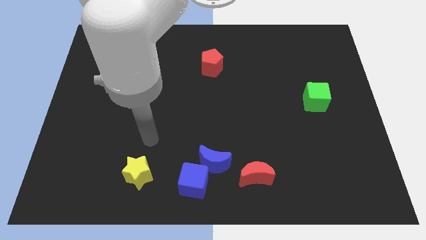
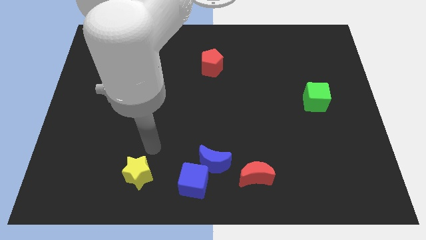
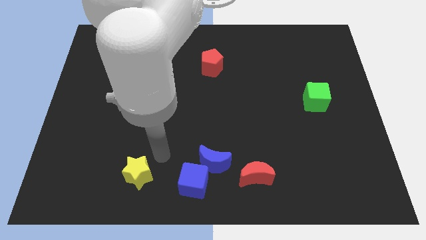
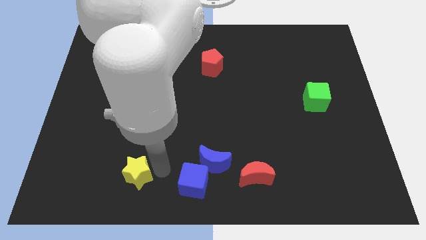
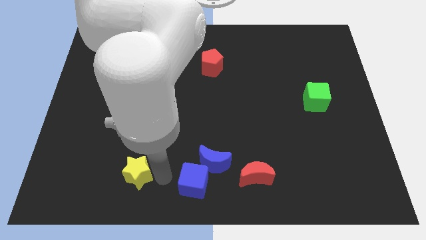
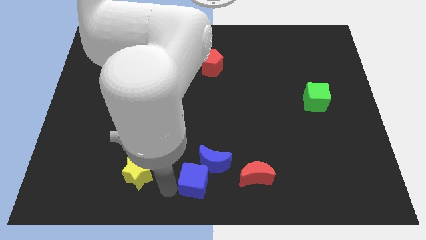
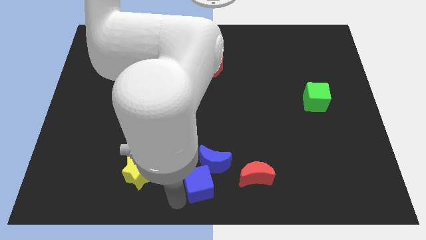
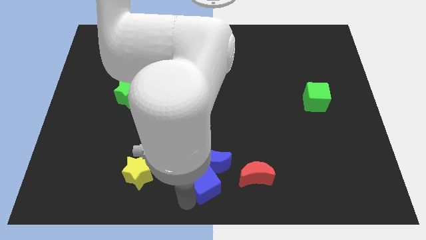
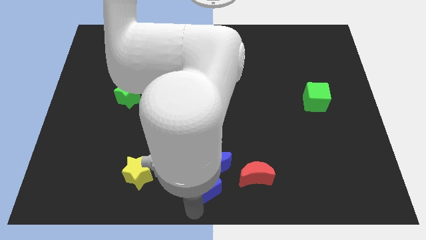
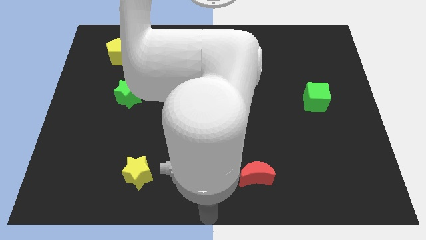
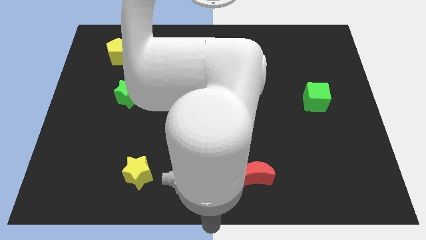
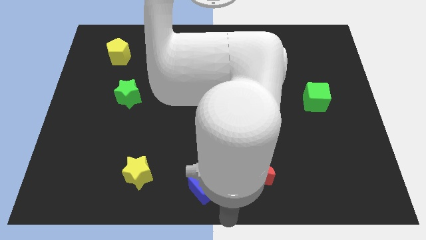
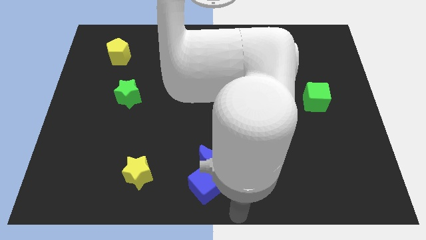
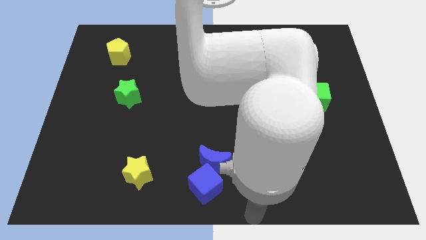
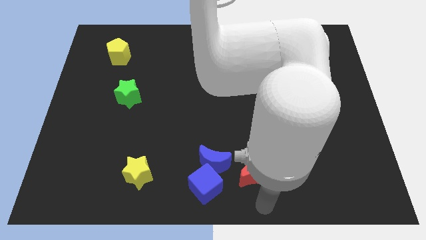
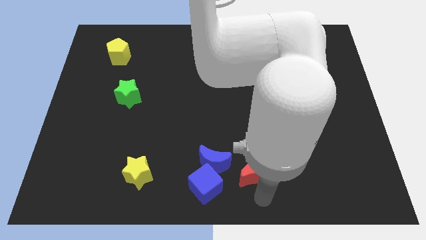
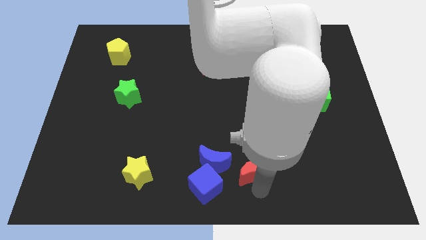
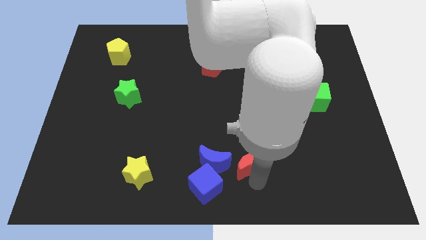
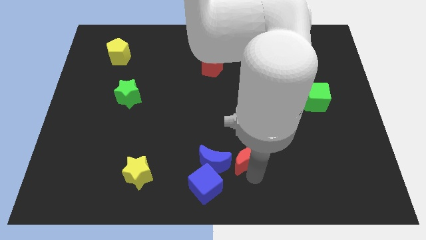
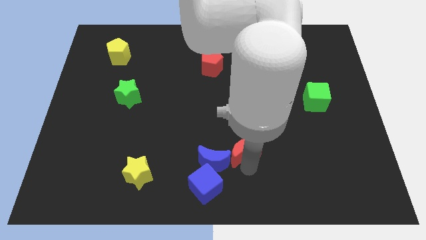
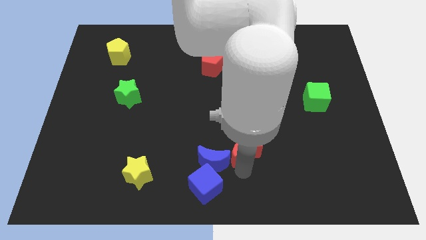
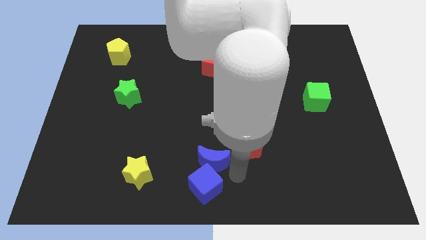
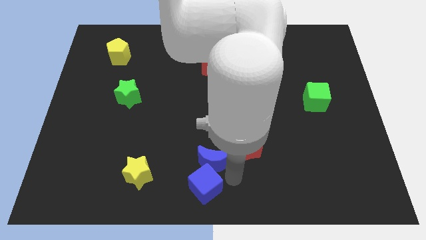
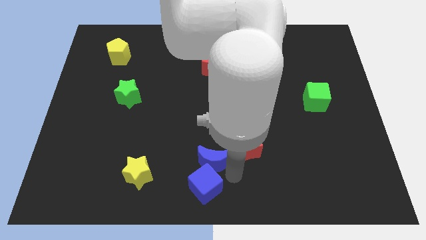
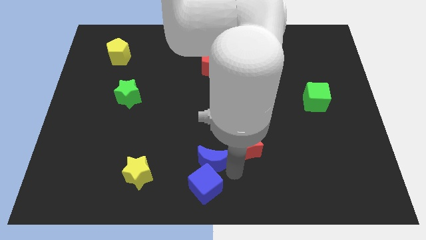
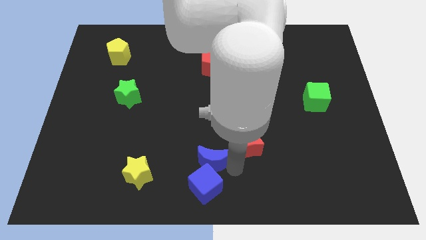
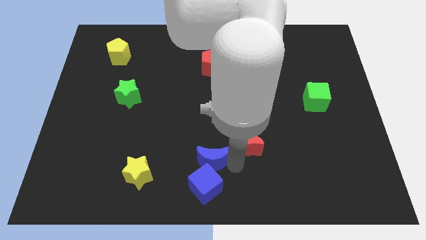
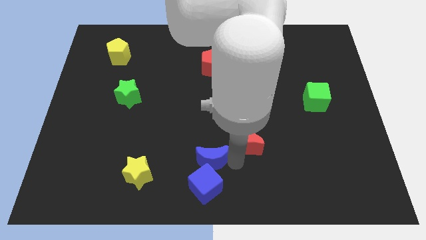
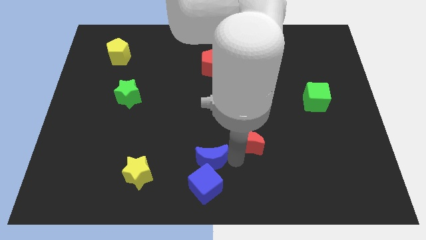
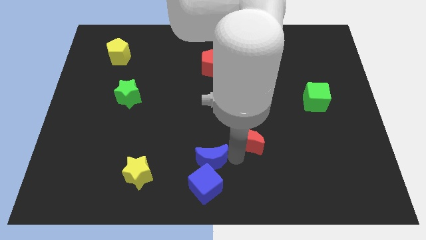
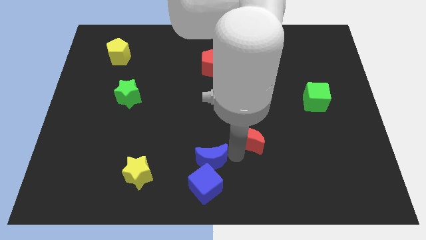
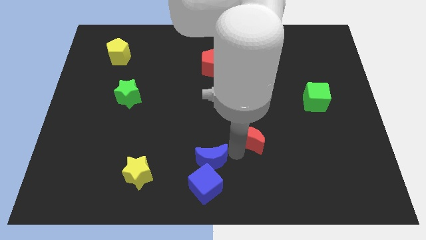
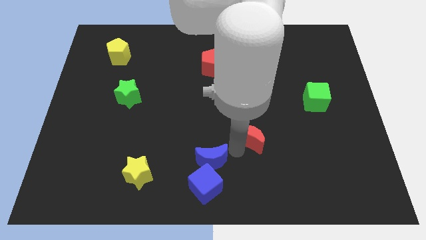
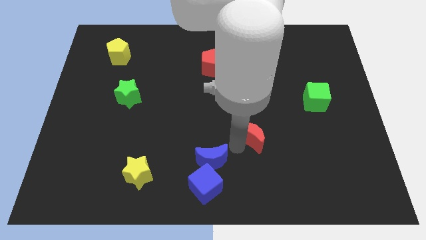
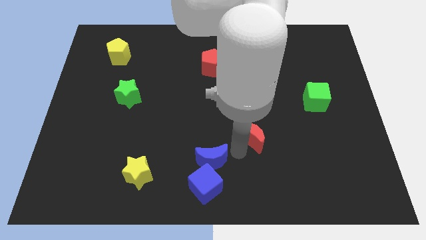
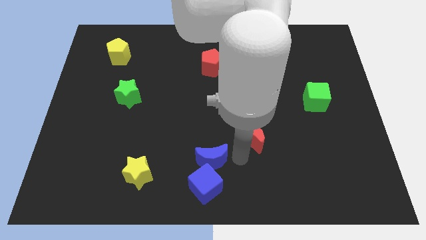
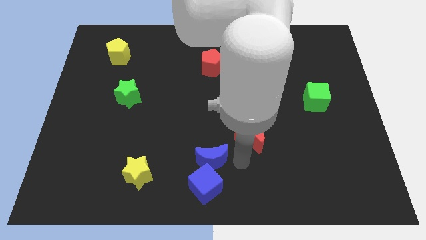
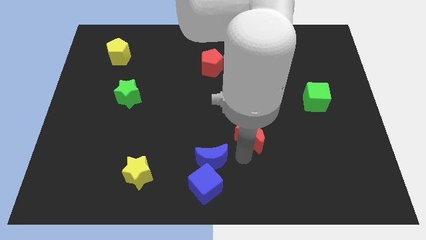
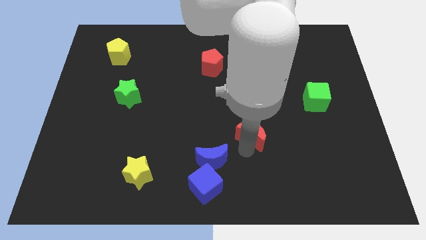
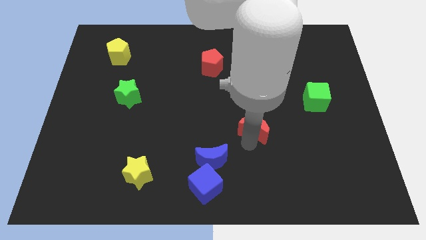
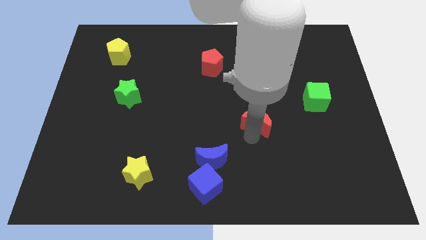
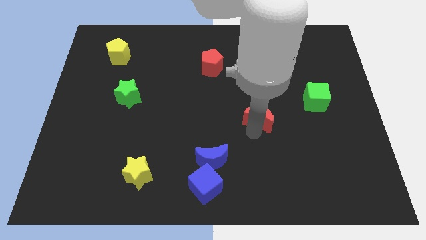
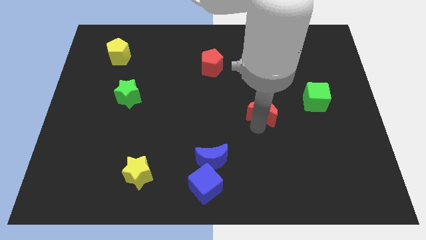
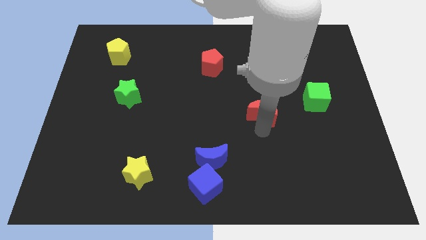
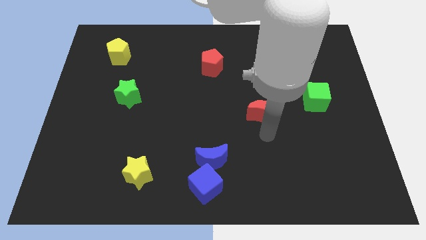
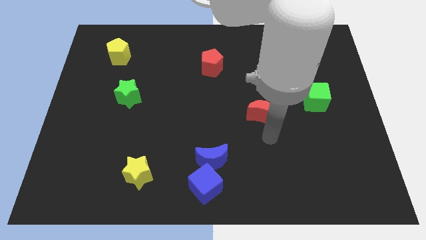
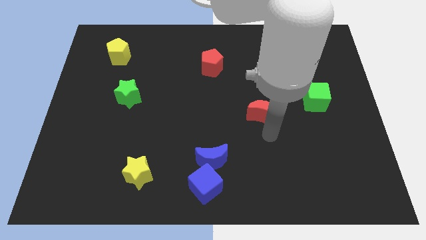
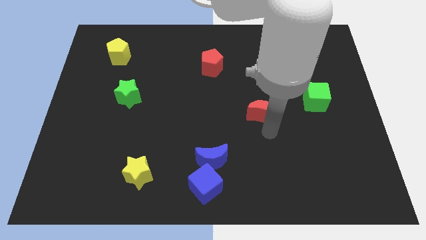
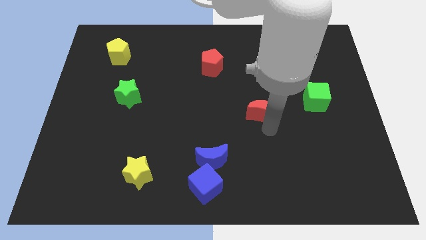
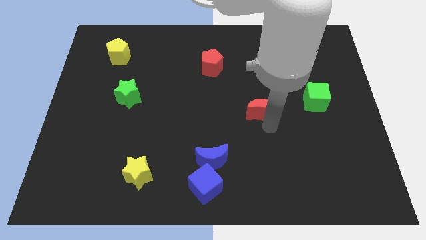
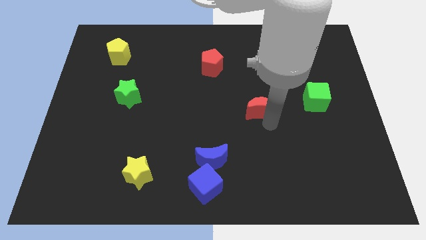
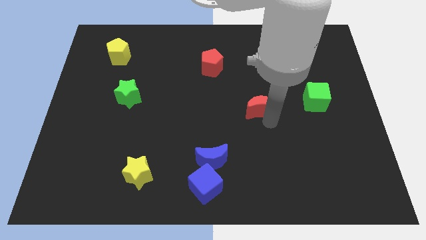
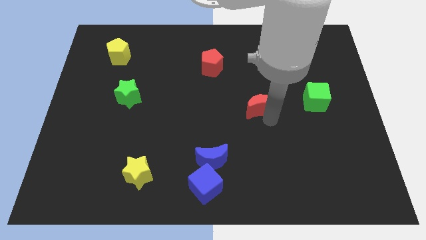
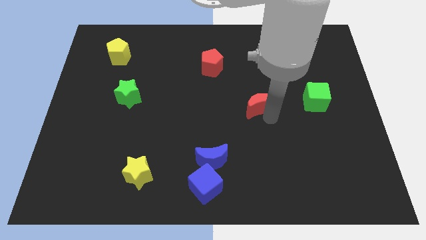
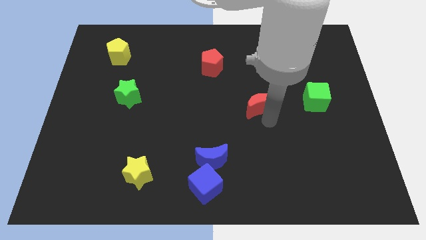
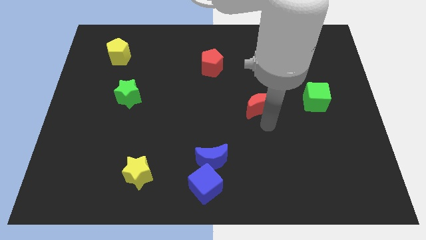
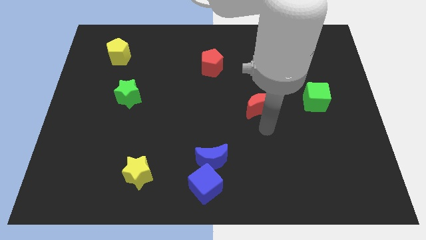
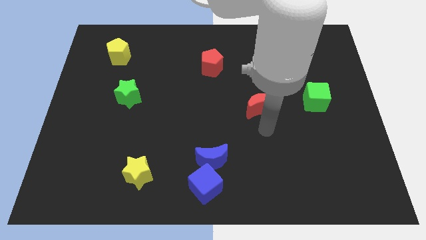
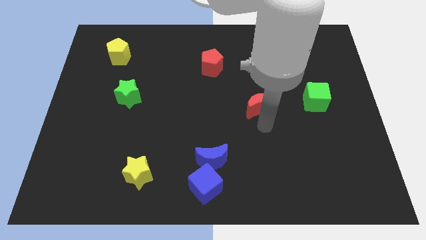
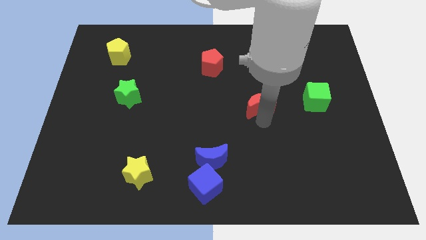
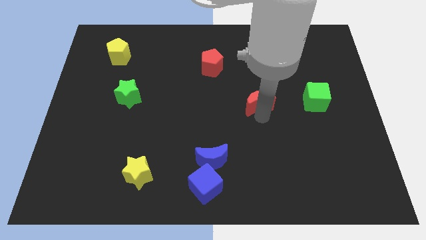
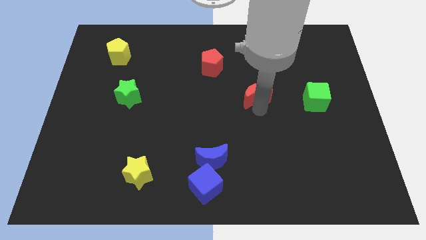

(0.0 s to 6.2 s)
move the red moon up

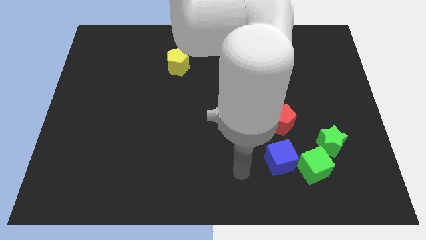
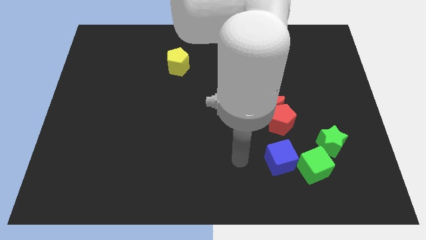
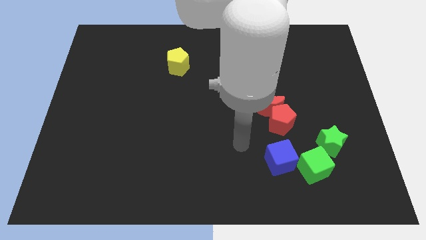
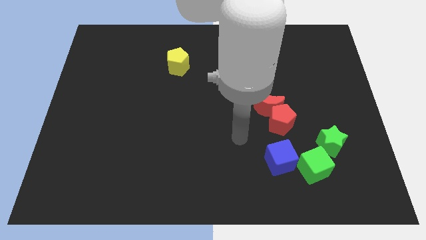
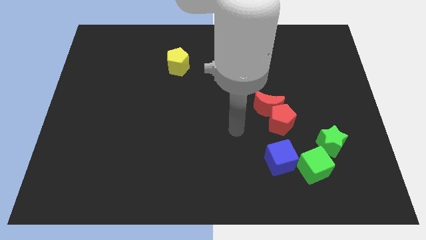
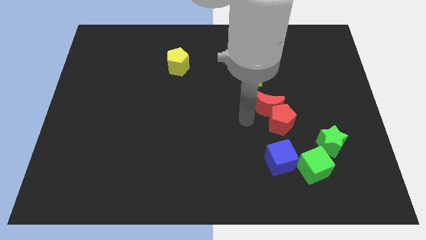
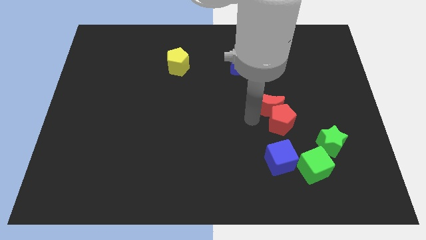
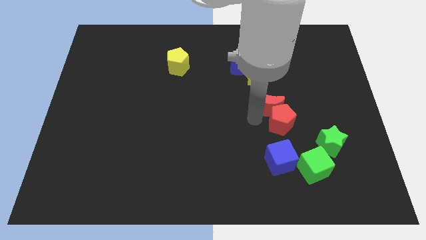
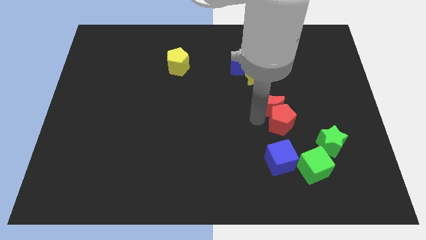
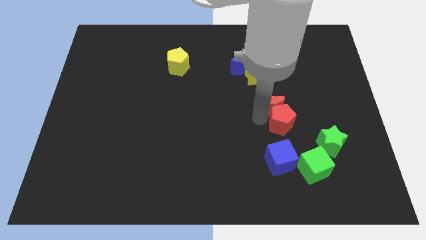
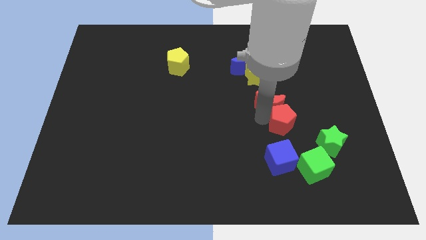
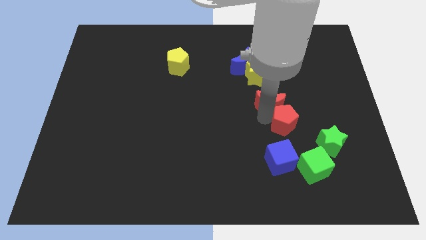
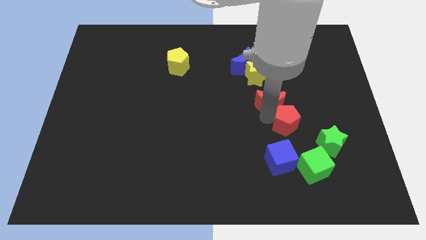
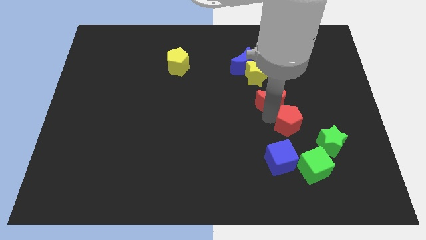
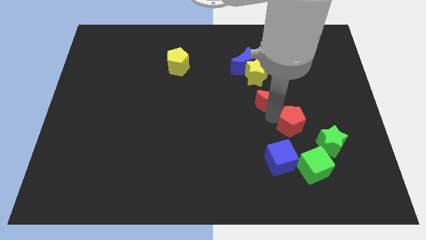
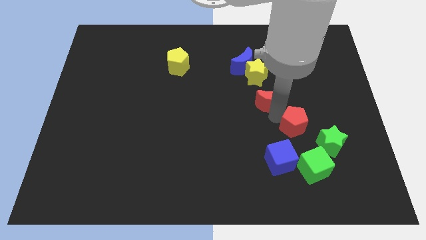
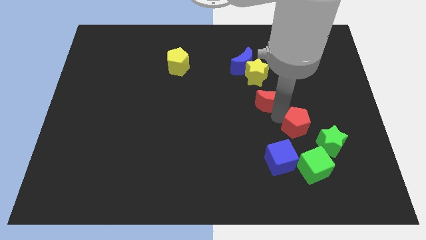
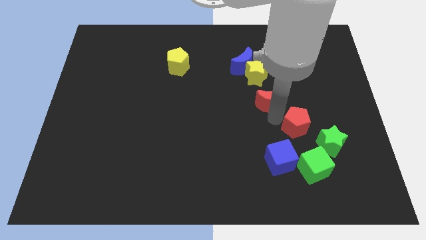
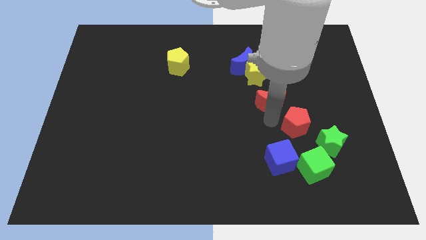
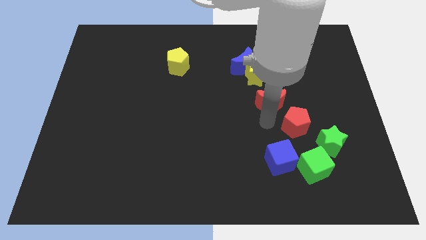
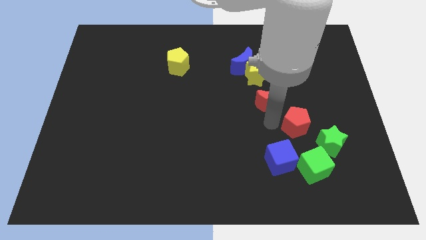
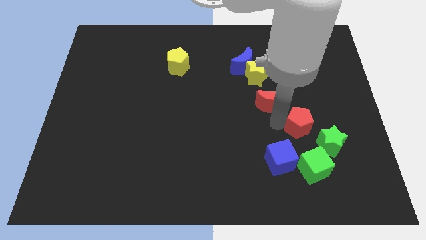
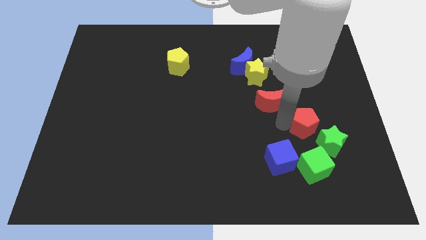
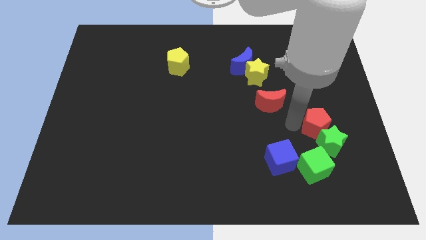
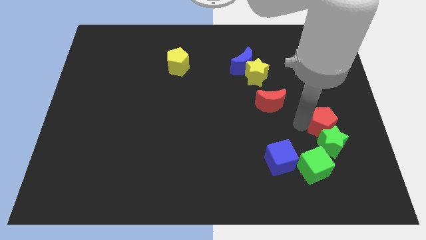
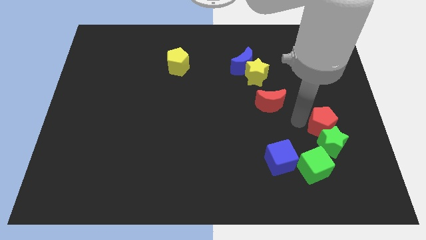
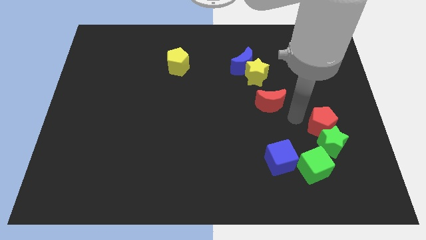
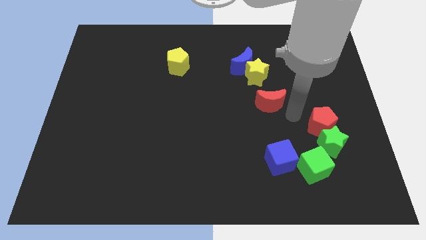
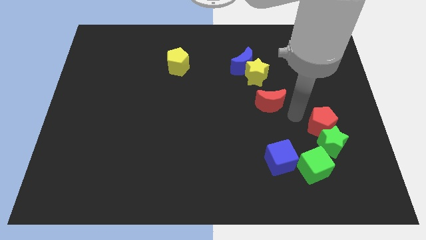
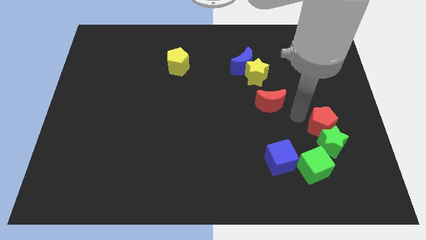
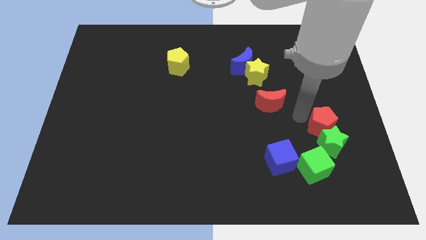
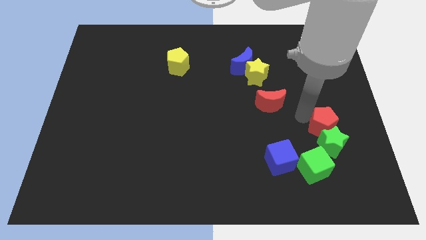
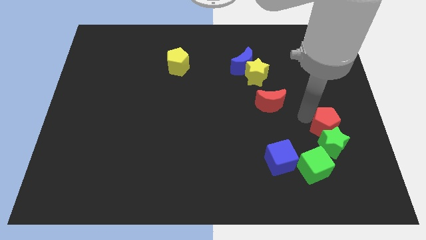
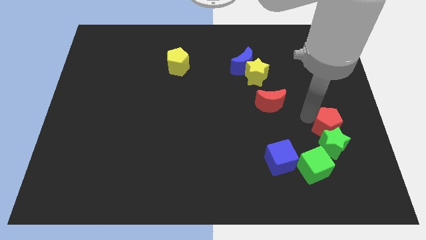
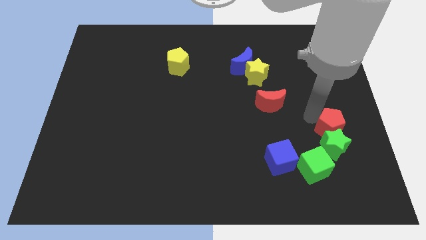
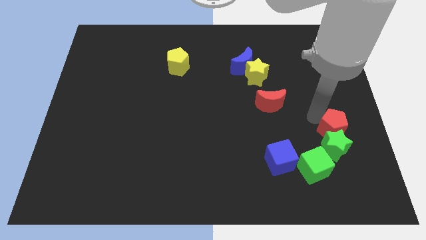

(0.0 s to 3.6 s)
move the red pentagon somewhat downwards and right diagonally
